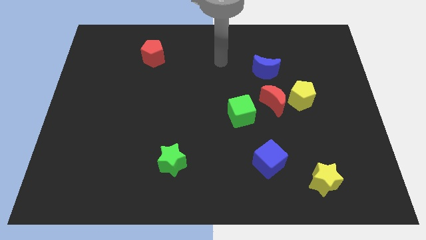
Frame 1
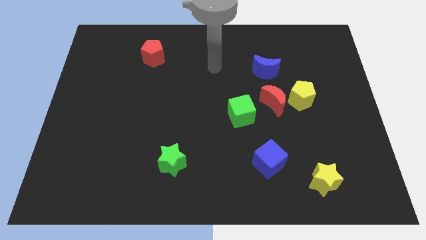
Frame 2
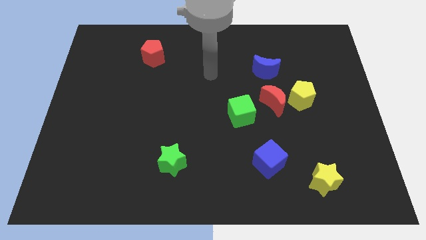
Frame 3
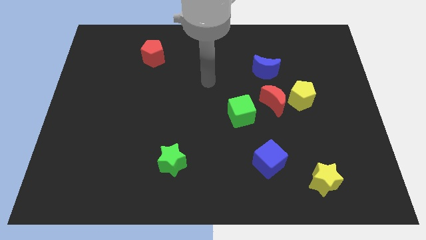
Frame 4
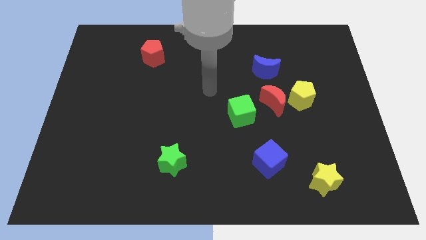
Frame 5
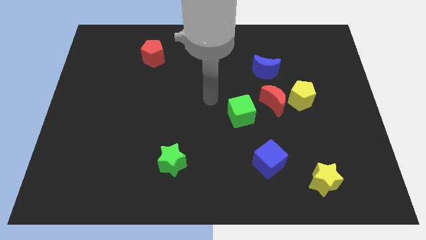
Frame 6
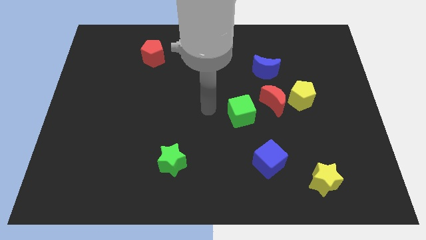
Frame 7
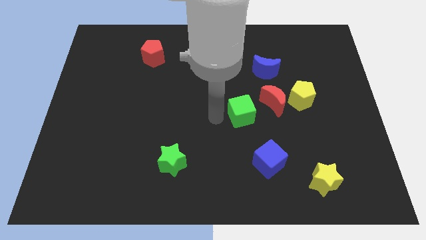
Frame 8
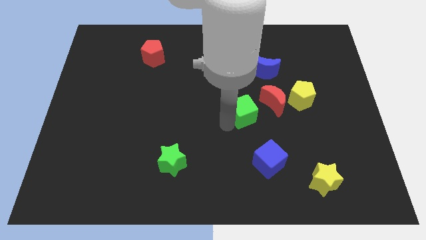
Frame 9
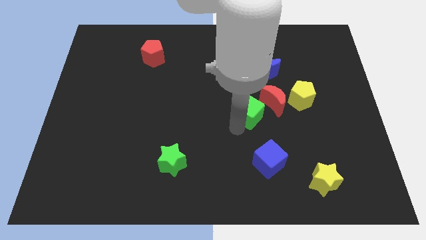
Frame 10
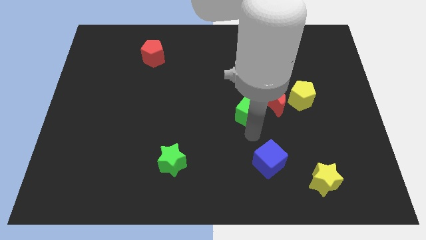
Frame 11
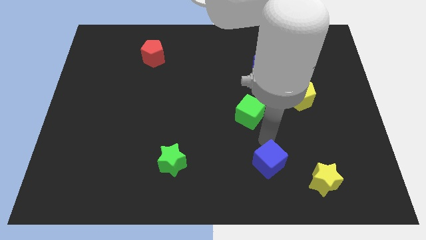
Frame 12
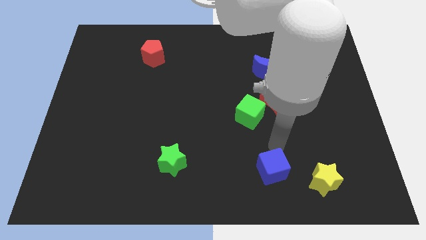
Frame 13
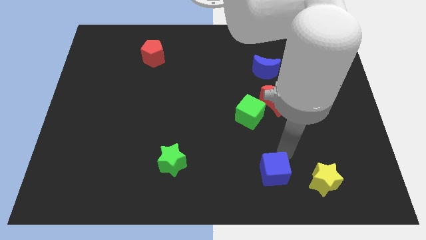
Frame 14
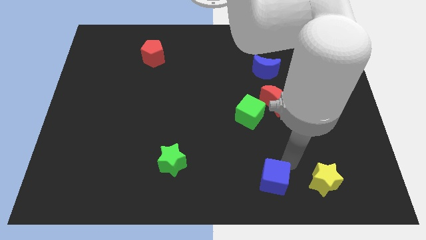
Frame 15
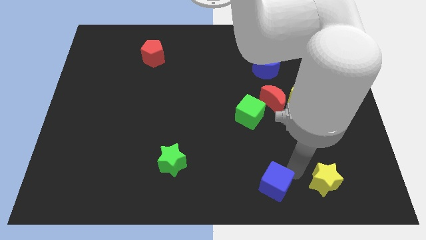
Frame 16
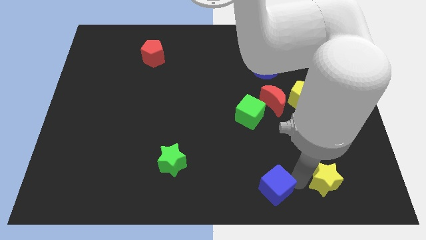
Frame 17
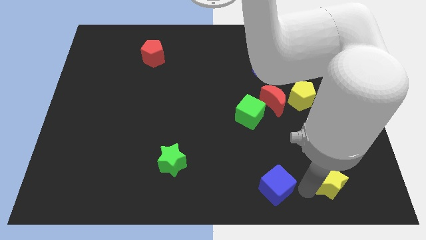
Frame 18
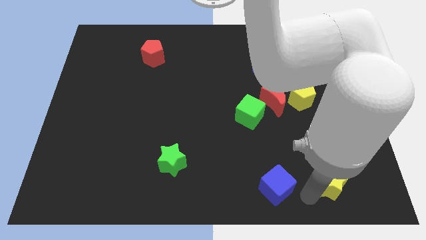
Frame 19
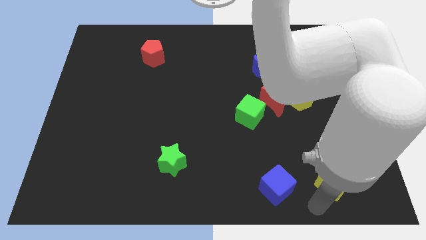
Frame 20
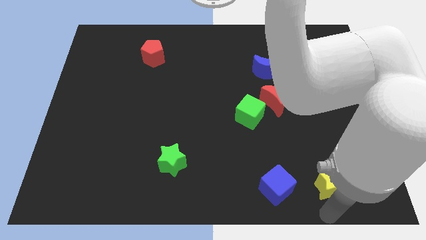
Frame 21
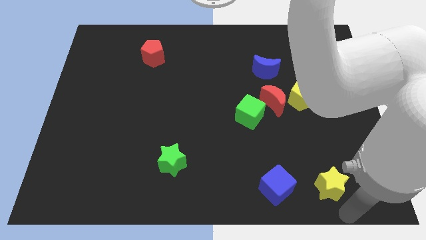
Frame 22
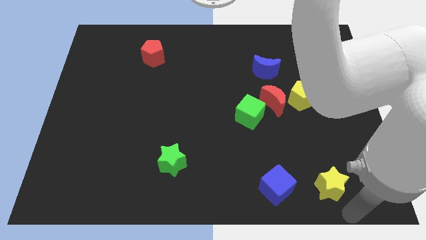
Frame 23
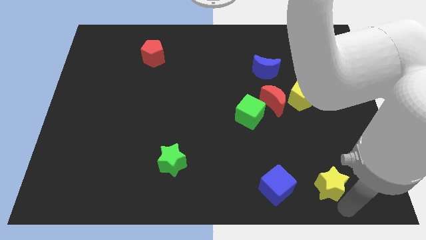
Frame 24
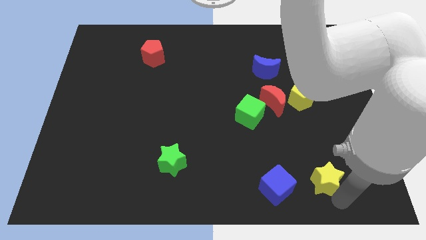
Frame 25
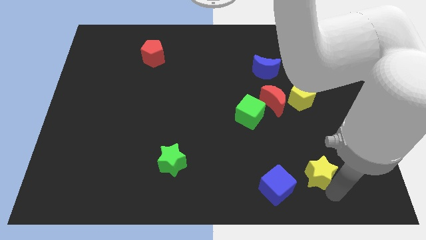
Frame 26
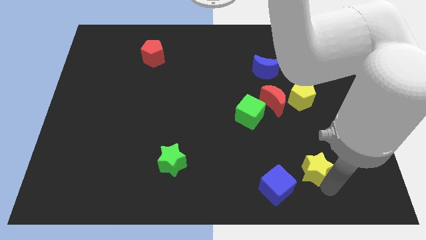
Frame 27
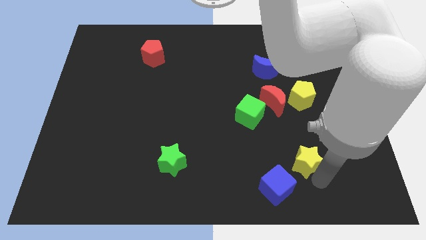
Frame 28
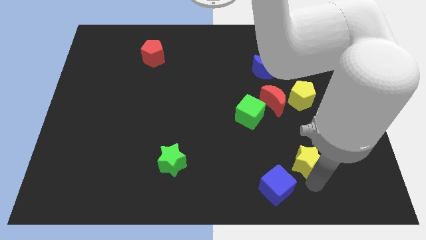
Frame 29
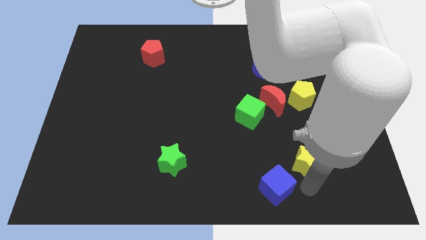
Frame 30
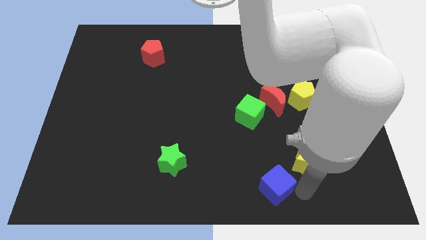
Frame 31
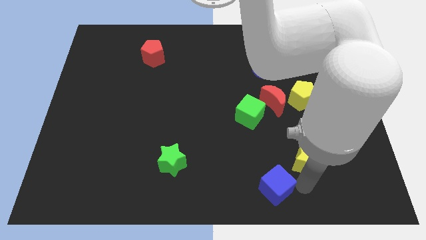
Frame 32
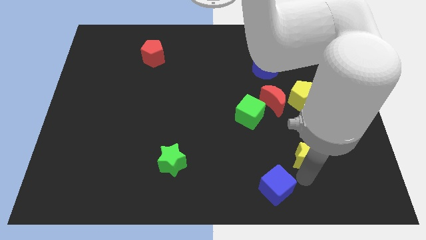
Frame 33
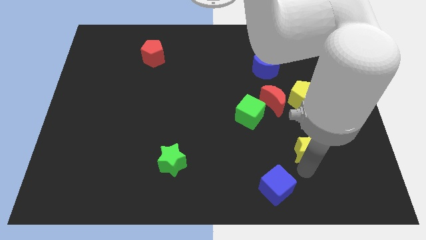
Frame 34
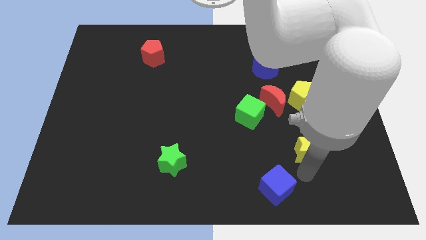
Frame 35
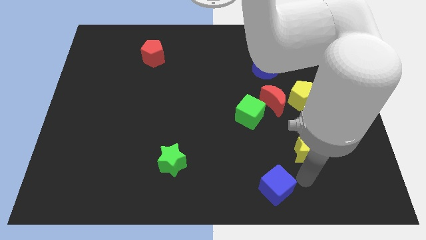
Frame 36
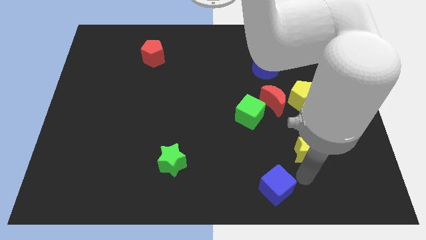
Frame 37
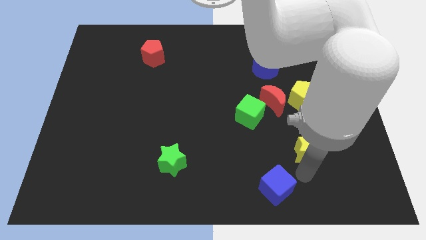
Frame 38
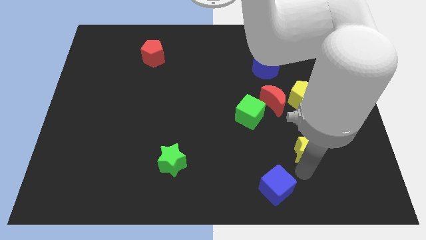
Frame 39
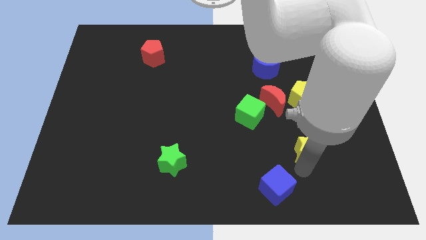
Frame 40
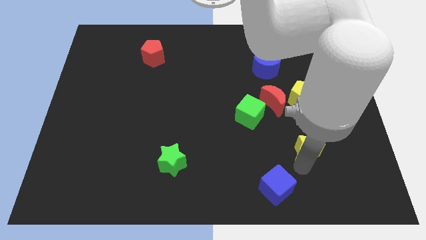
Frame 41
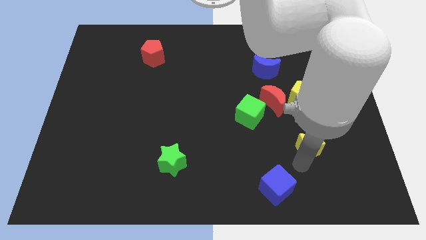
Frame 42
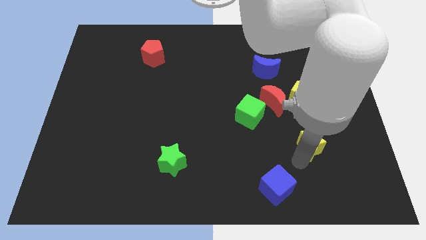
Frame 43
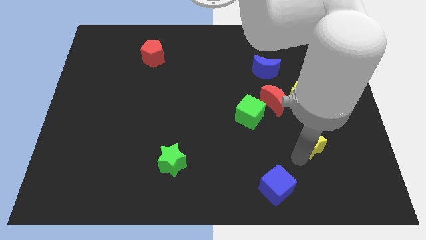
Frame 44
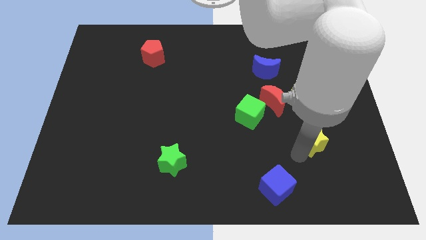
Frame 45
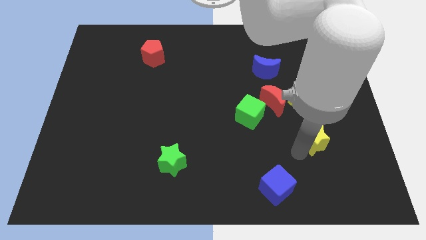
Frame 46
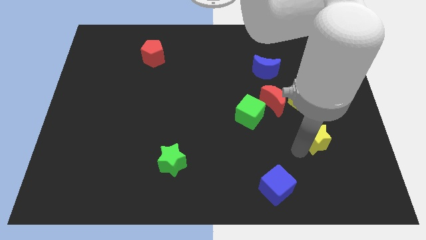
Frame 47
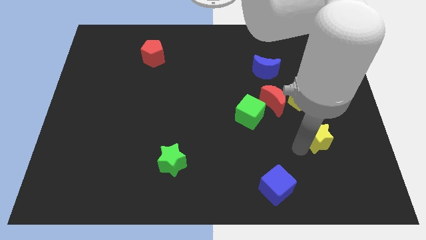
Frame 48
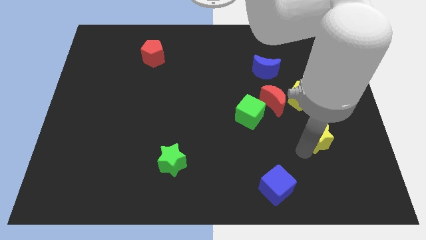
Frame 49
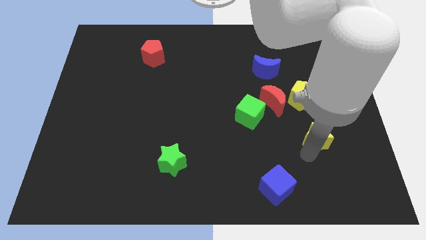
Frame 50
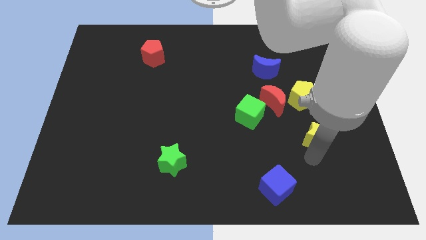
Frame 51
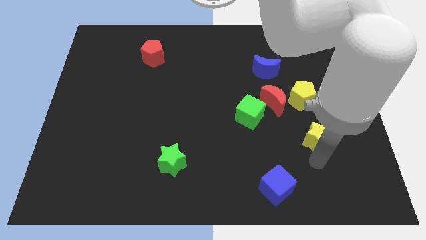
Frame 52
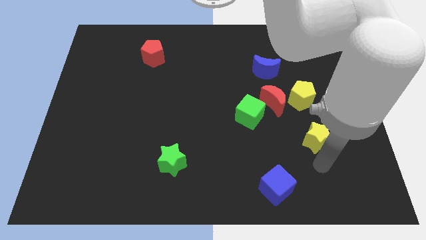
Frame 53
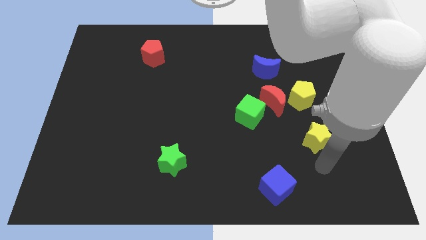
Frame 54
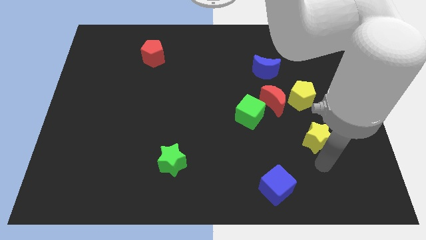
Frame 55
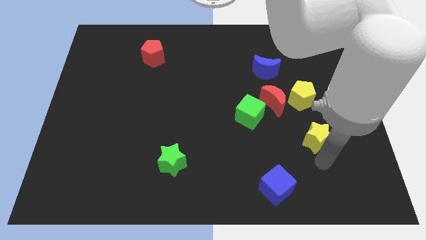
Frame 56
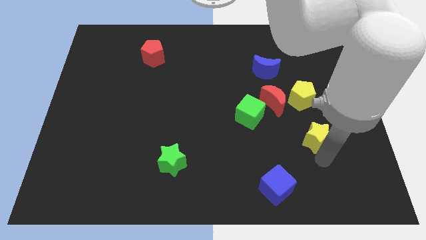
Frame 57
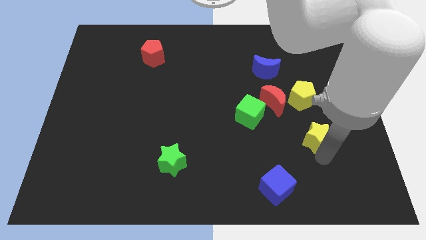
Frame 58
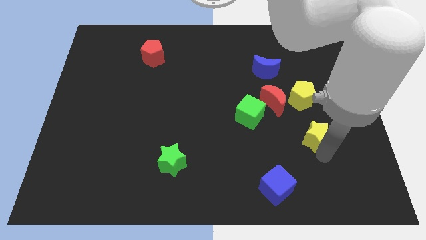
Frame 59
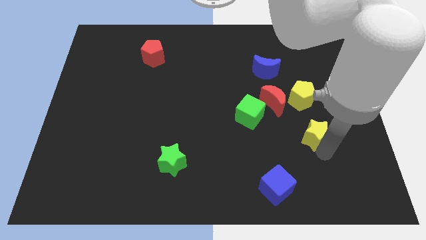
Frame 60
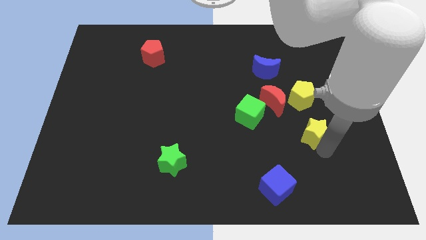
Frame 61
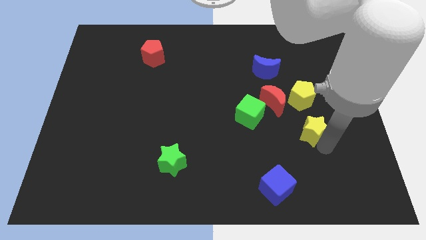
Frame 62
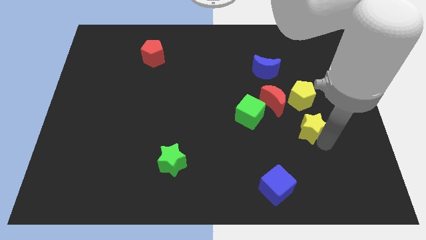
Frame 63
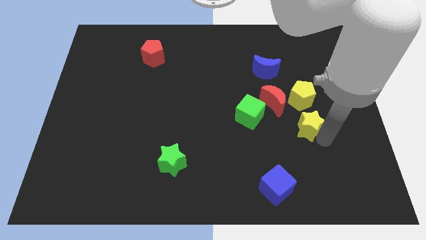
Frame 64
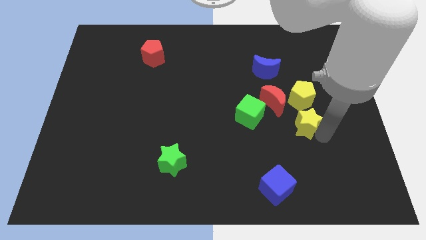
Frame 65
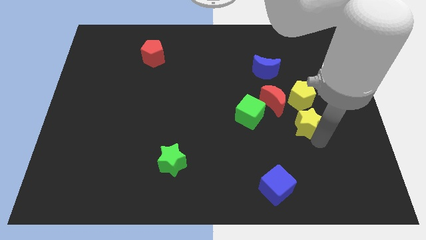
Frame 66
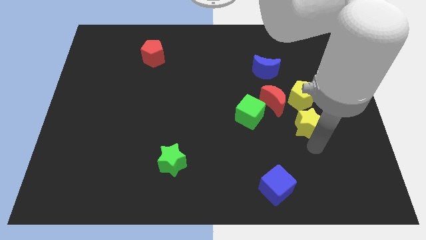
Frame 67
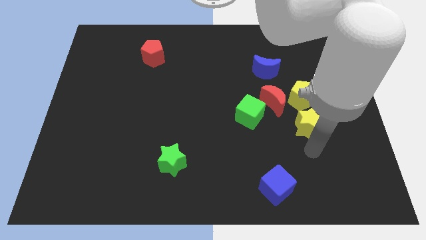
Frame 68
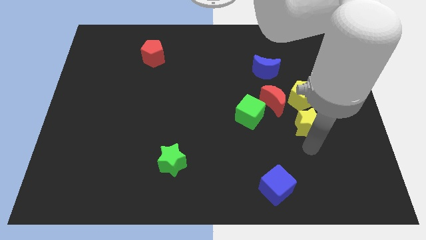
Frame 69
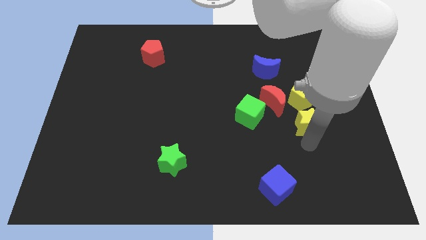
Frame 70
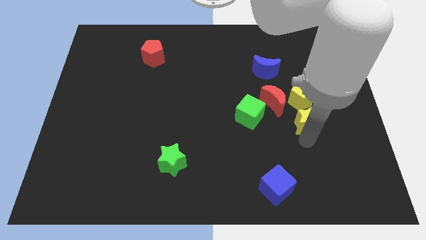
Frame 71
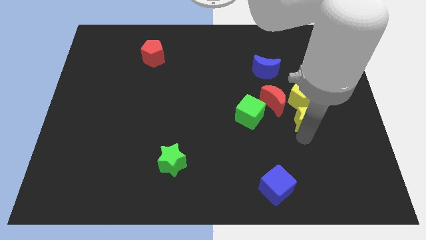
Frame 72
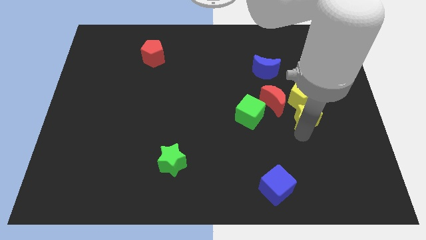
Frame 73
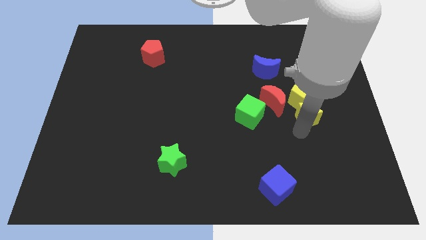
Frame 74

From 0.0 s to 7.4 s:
push the yellow star close to the yellow pentagon
